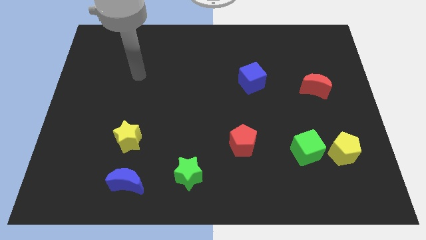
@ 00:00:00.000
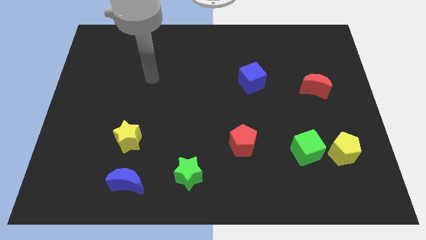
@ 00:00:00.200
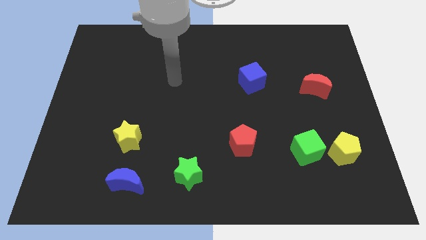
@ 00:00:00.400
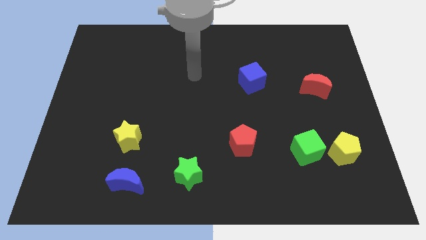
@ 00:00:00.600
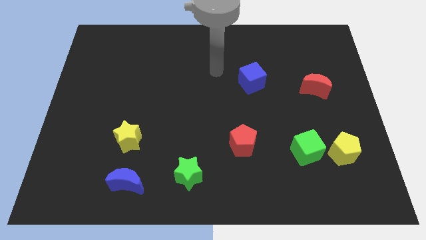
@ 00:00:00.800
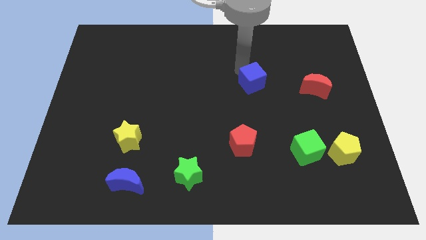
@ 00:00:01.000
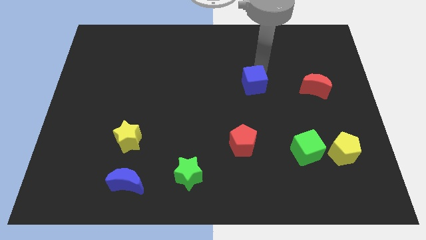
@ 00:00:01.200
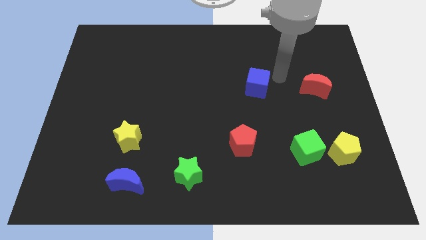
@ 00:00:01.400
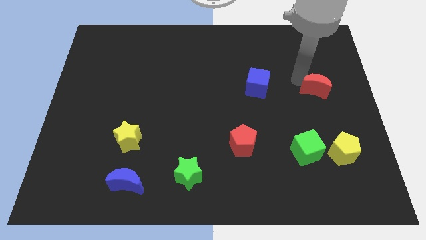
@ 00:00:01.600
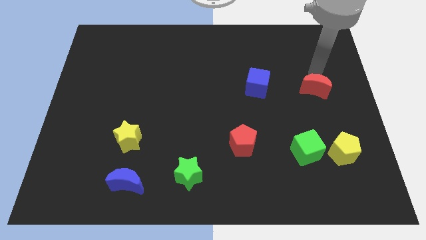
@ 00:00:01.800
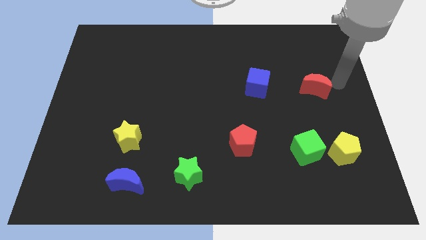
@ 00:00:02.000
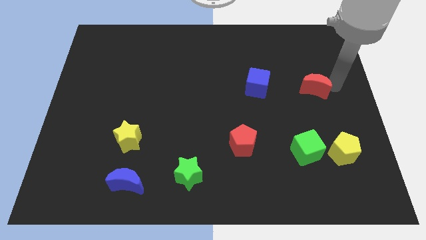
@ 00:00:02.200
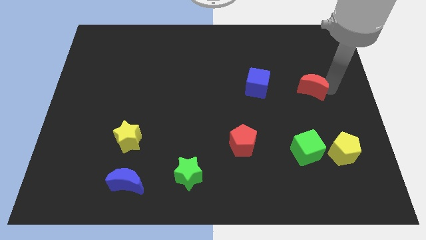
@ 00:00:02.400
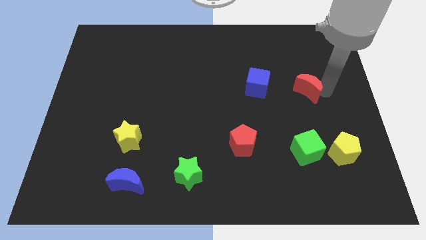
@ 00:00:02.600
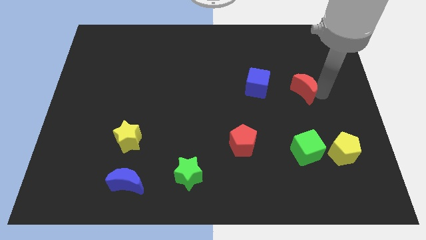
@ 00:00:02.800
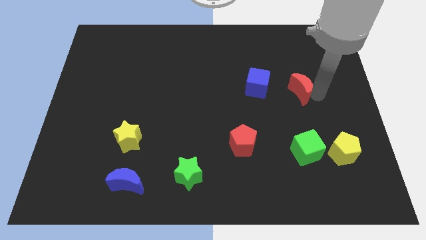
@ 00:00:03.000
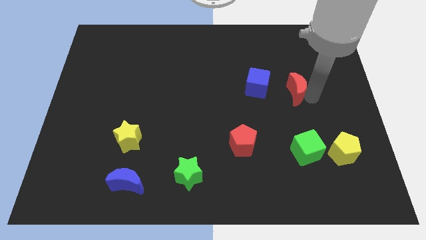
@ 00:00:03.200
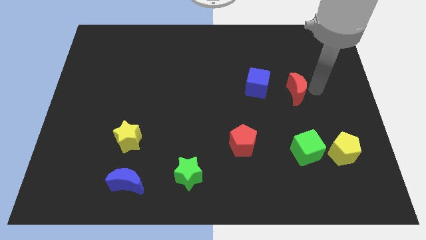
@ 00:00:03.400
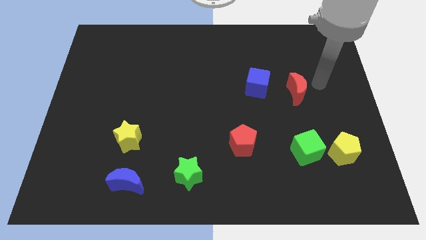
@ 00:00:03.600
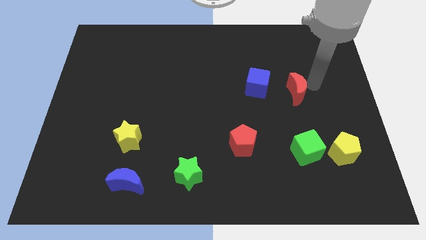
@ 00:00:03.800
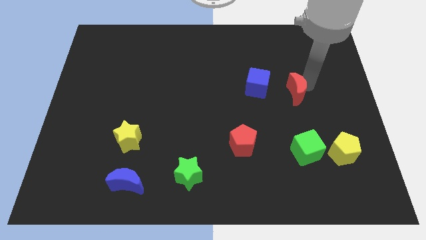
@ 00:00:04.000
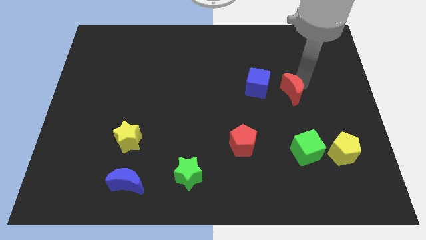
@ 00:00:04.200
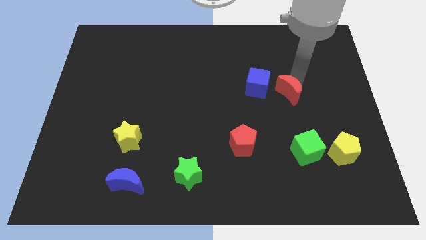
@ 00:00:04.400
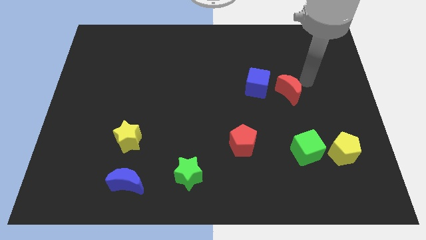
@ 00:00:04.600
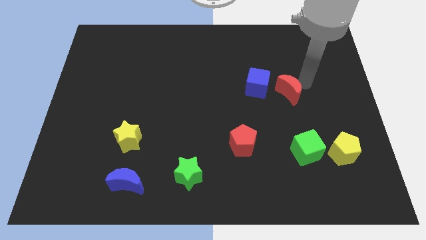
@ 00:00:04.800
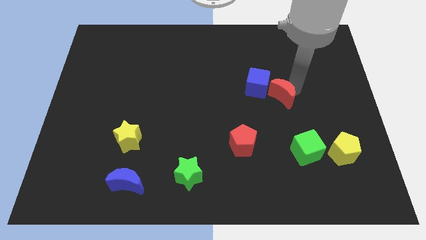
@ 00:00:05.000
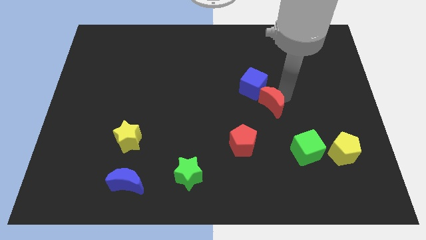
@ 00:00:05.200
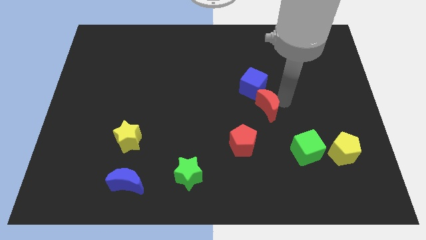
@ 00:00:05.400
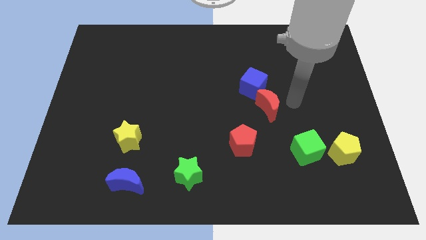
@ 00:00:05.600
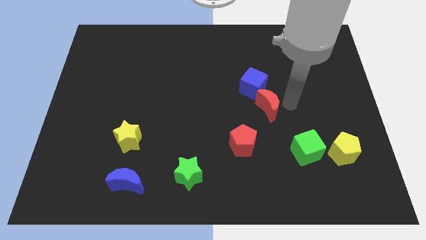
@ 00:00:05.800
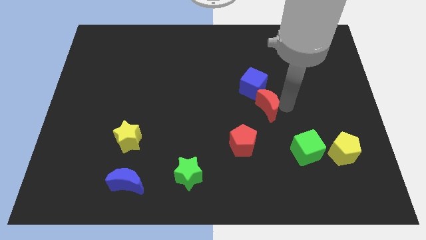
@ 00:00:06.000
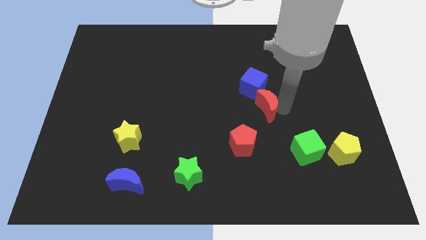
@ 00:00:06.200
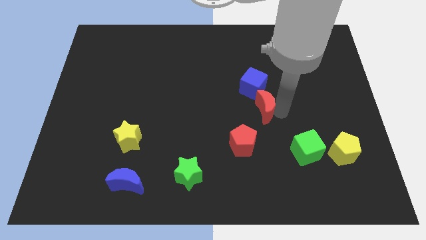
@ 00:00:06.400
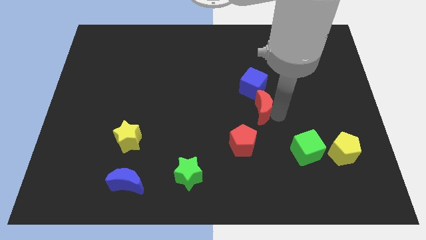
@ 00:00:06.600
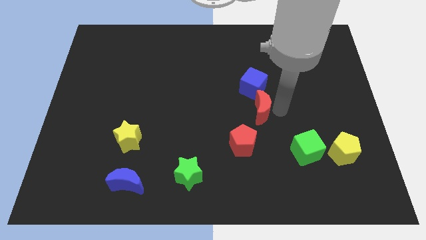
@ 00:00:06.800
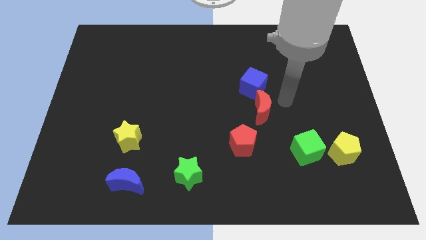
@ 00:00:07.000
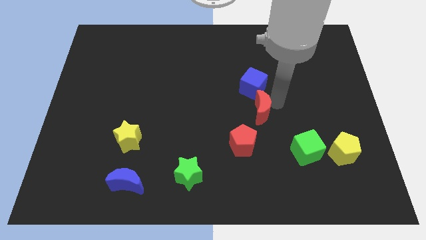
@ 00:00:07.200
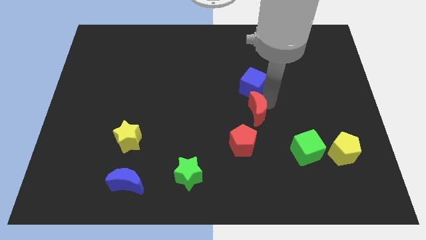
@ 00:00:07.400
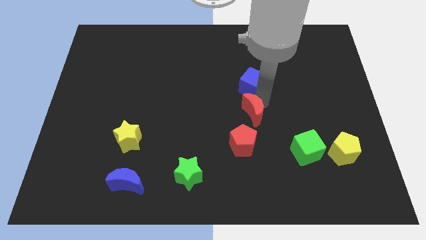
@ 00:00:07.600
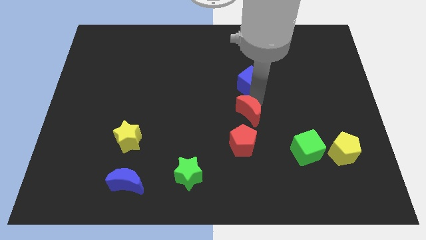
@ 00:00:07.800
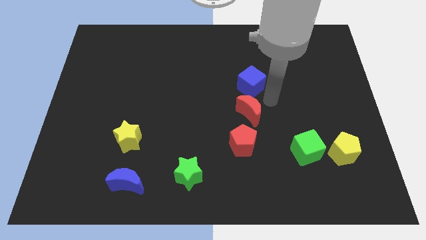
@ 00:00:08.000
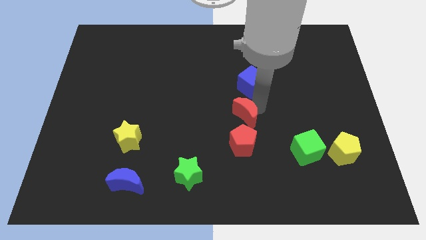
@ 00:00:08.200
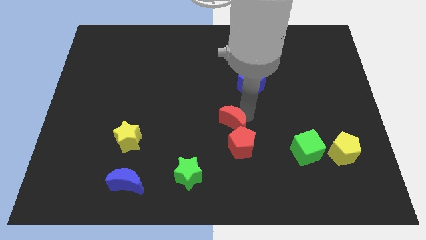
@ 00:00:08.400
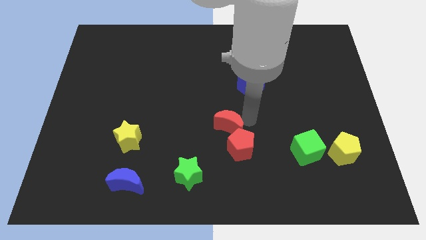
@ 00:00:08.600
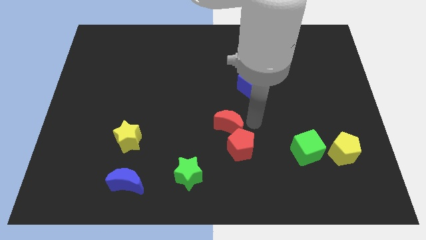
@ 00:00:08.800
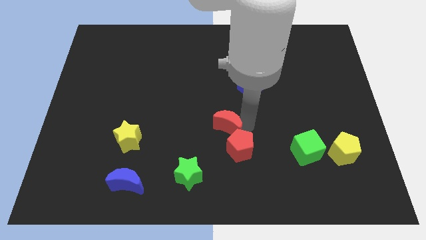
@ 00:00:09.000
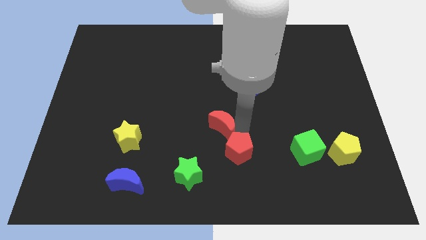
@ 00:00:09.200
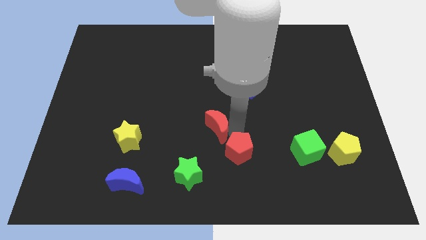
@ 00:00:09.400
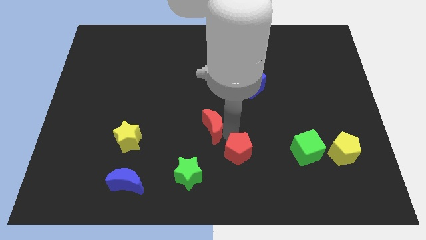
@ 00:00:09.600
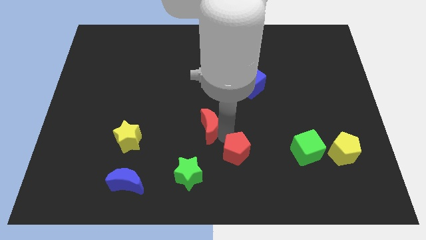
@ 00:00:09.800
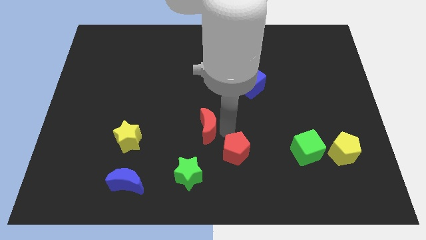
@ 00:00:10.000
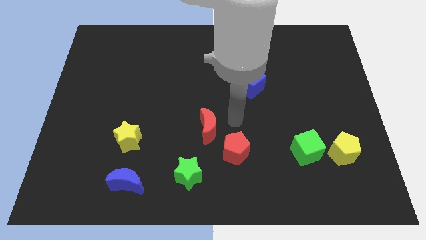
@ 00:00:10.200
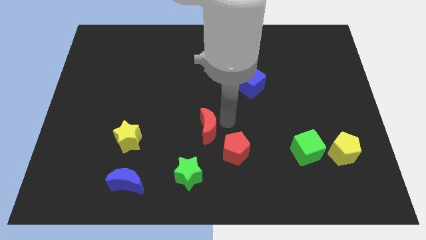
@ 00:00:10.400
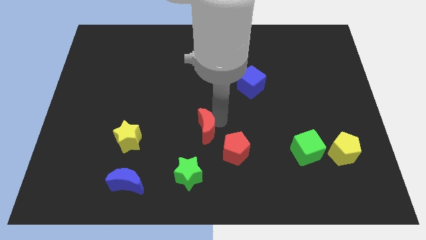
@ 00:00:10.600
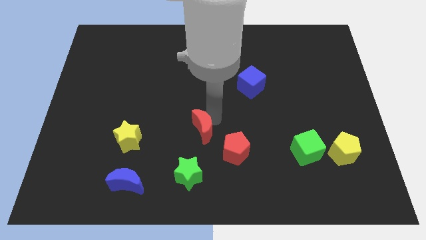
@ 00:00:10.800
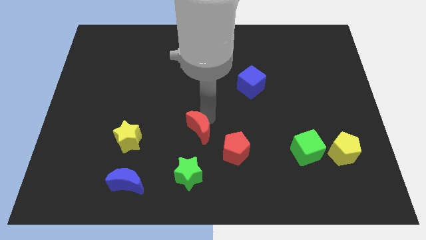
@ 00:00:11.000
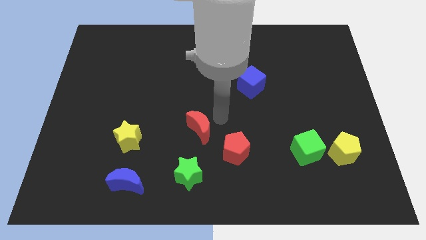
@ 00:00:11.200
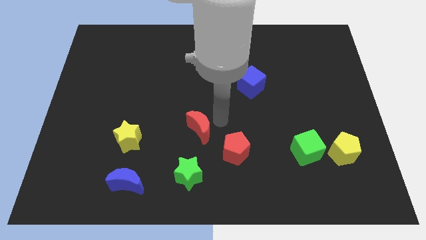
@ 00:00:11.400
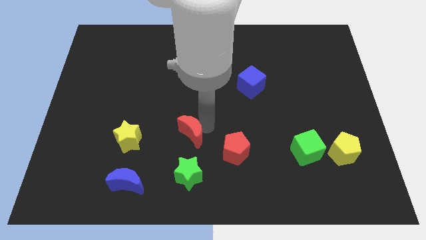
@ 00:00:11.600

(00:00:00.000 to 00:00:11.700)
put the red moon to the right side of the yellow star

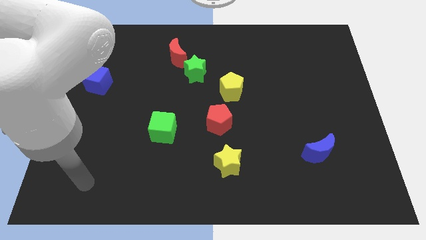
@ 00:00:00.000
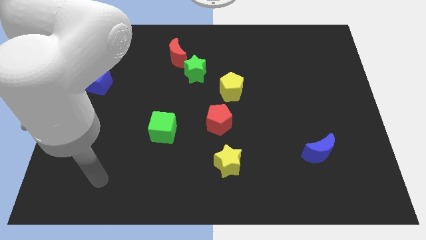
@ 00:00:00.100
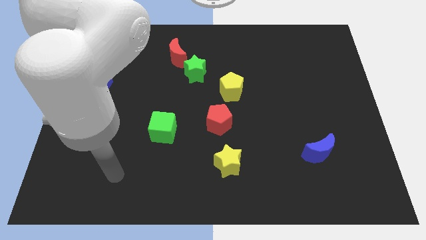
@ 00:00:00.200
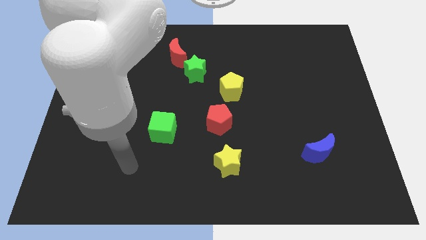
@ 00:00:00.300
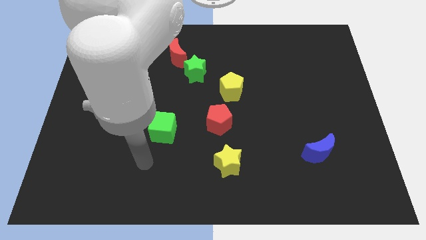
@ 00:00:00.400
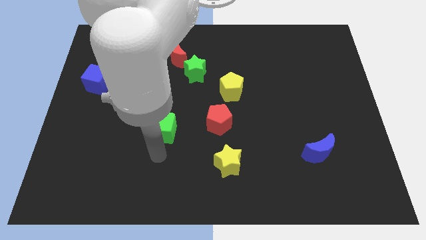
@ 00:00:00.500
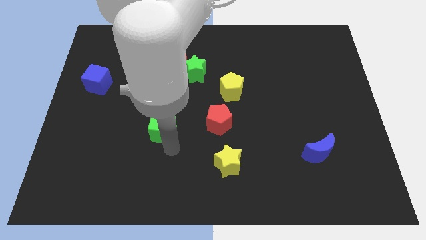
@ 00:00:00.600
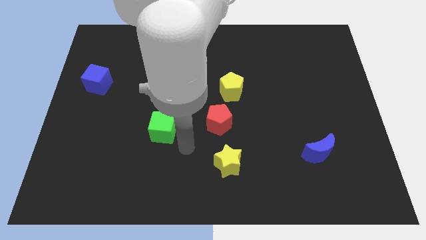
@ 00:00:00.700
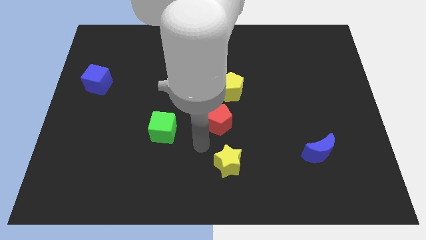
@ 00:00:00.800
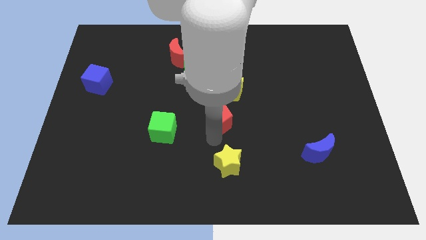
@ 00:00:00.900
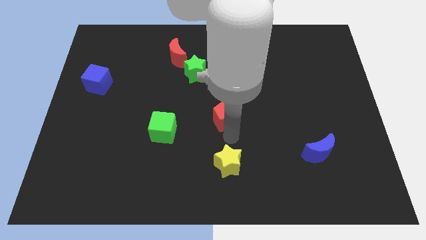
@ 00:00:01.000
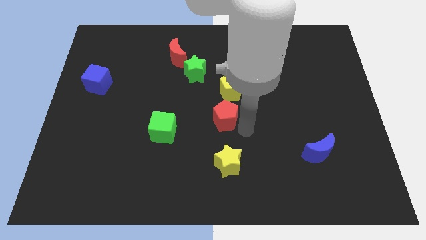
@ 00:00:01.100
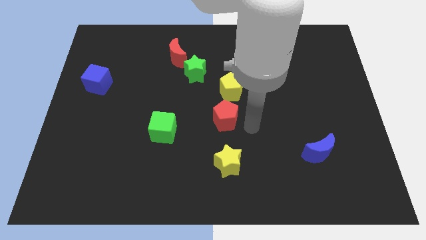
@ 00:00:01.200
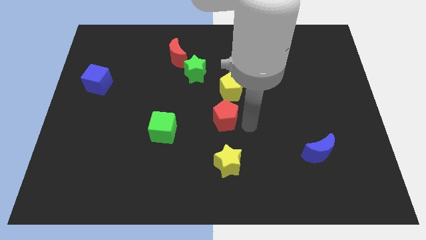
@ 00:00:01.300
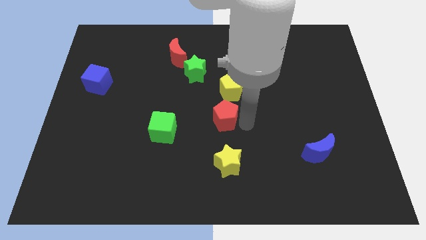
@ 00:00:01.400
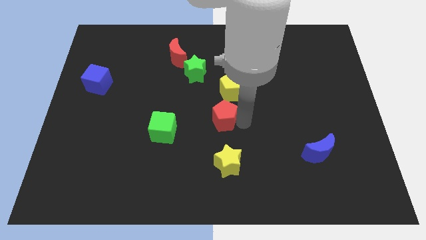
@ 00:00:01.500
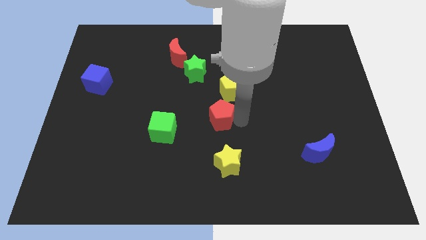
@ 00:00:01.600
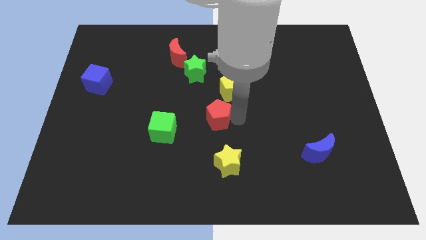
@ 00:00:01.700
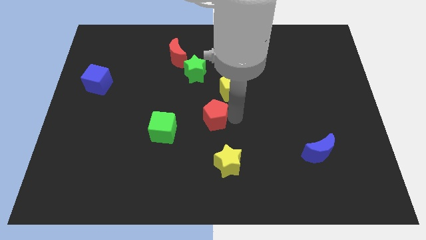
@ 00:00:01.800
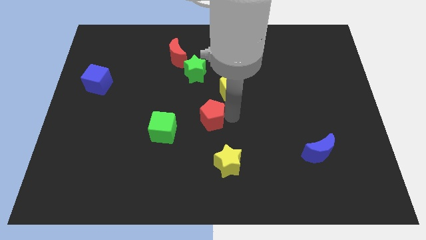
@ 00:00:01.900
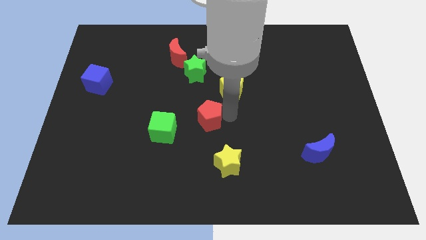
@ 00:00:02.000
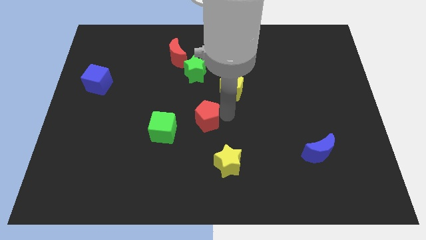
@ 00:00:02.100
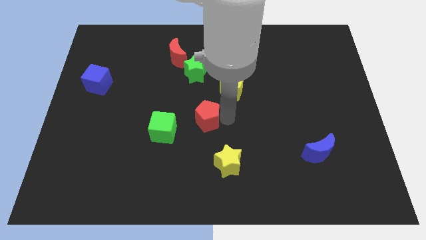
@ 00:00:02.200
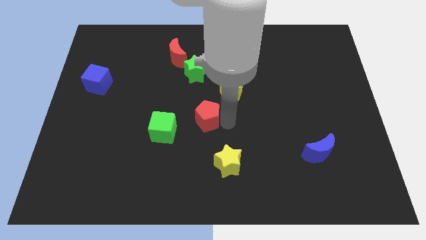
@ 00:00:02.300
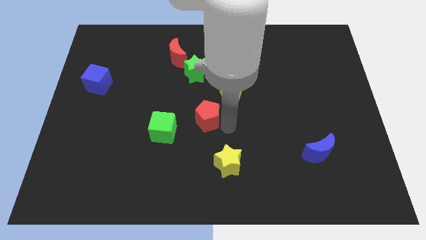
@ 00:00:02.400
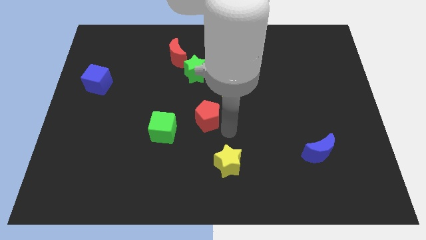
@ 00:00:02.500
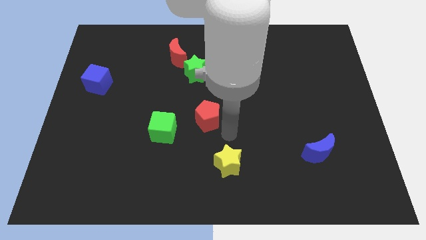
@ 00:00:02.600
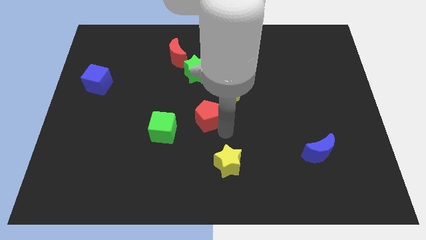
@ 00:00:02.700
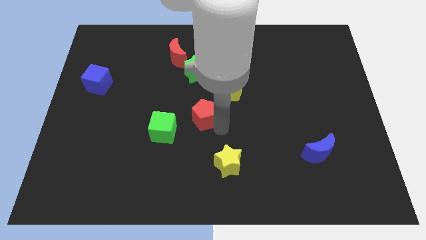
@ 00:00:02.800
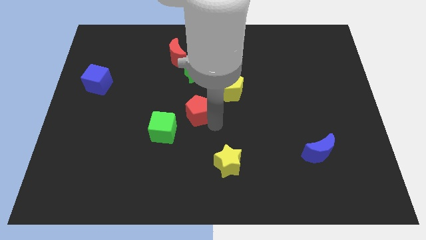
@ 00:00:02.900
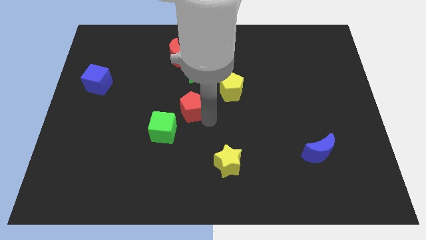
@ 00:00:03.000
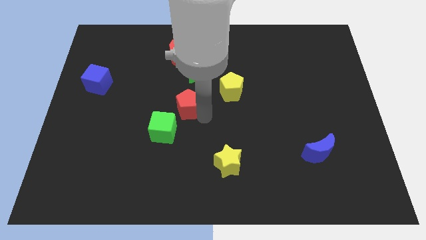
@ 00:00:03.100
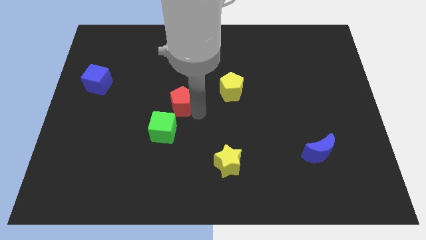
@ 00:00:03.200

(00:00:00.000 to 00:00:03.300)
slide the red pentagon to the top side of the green cube
